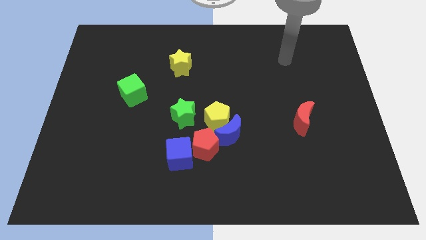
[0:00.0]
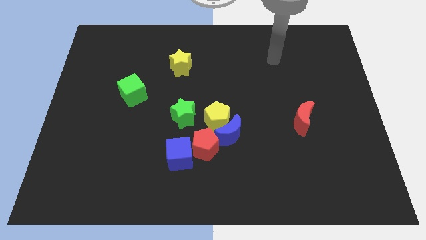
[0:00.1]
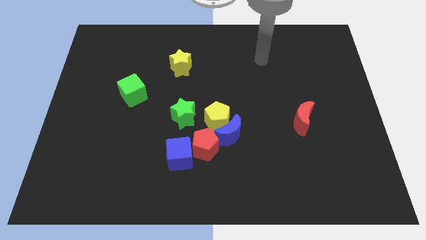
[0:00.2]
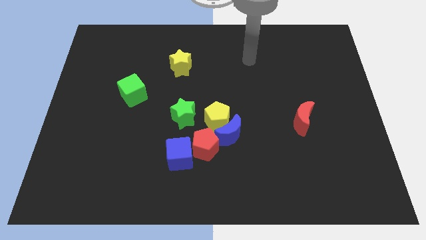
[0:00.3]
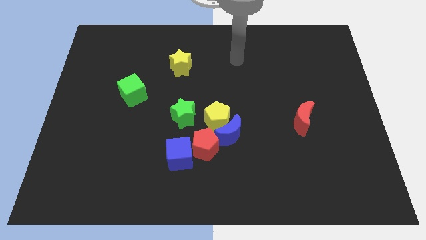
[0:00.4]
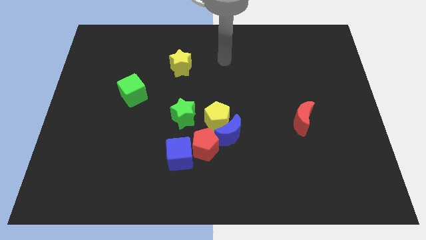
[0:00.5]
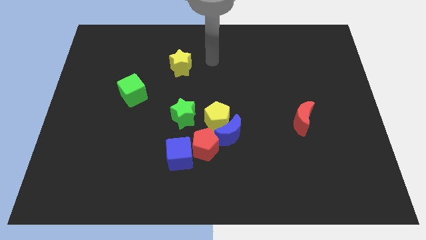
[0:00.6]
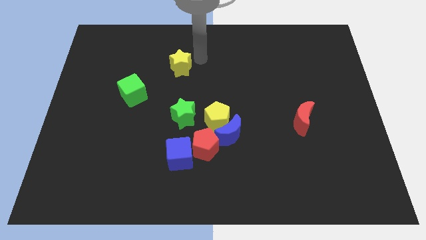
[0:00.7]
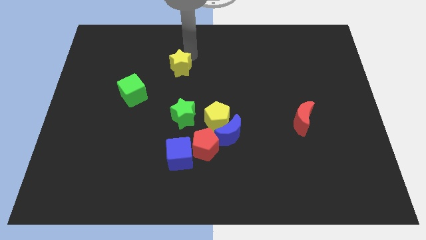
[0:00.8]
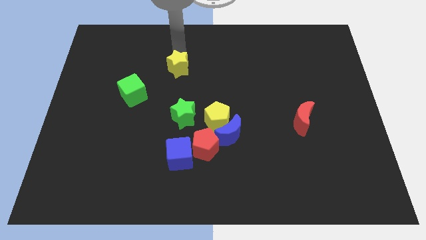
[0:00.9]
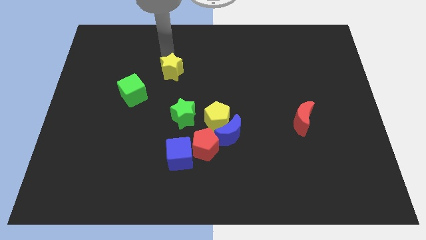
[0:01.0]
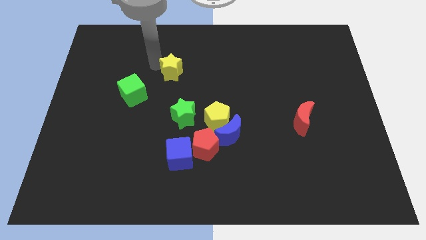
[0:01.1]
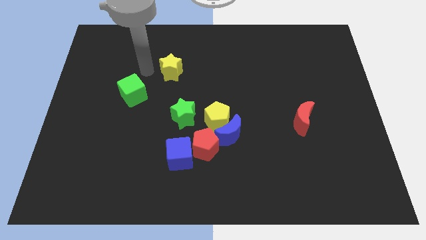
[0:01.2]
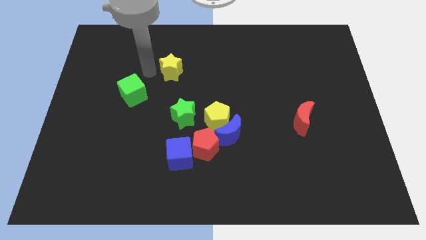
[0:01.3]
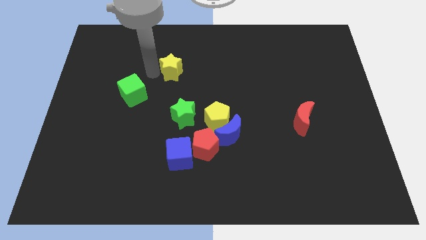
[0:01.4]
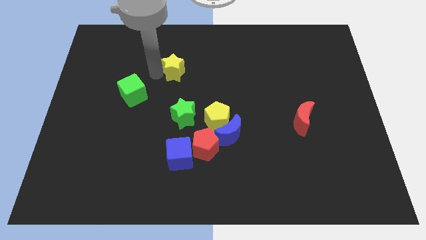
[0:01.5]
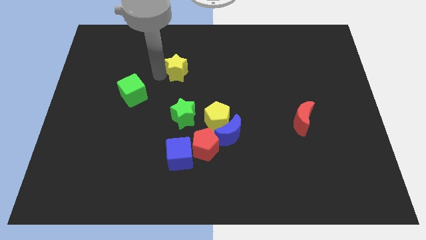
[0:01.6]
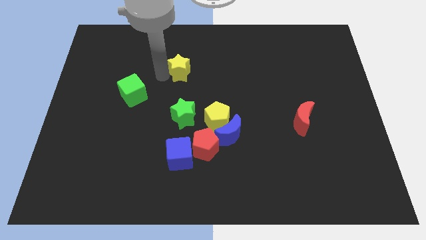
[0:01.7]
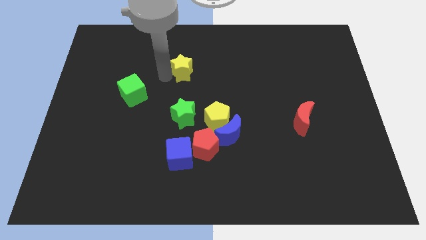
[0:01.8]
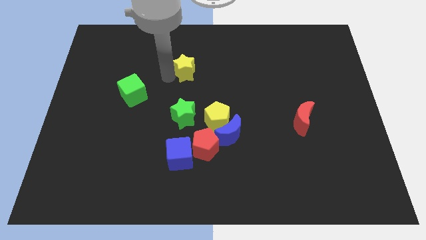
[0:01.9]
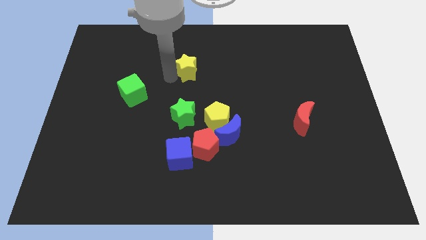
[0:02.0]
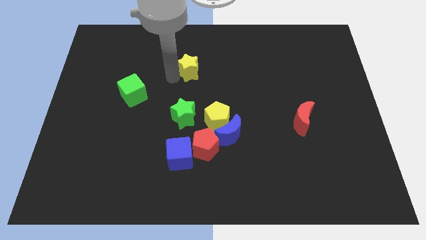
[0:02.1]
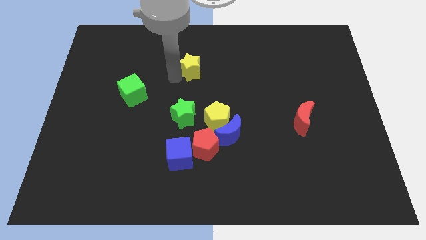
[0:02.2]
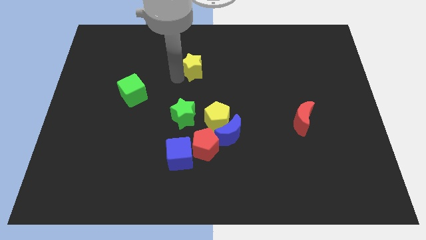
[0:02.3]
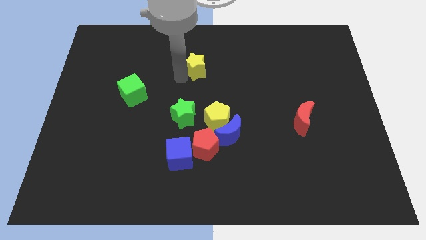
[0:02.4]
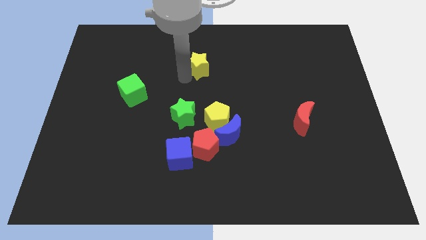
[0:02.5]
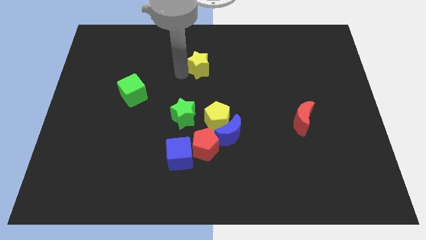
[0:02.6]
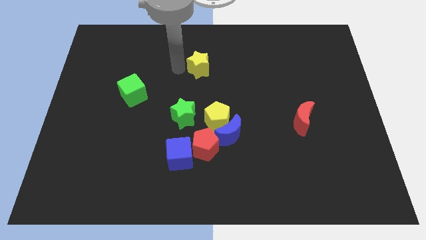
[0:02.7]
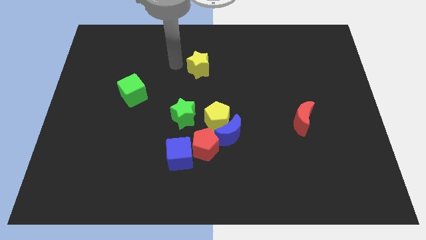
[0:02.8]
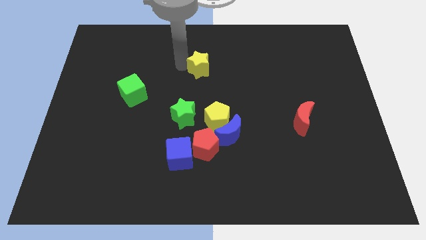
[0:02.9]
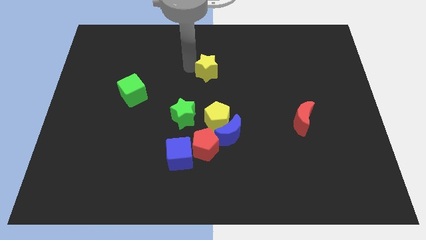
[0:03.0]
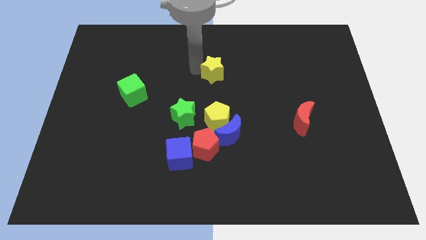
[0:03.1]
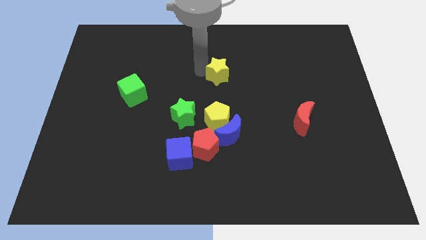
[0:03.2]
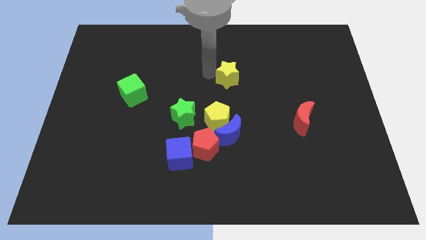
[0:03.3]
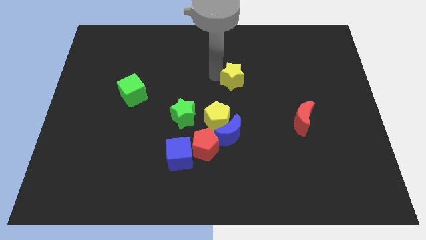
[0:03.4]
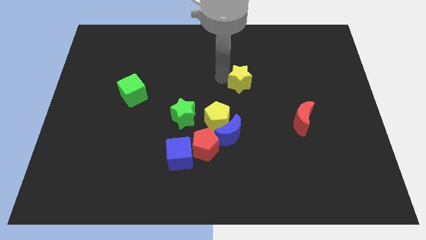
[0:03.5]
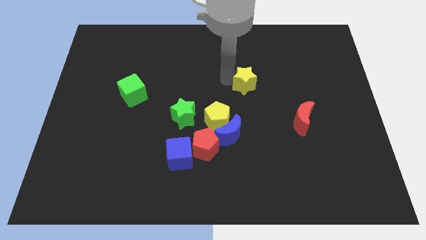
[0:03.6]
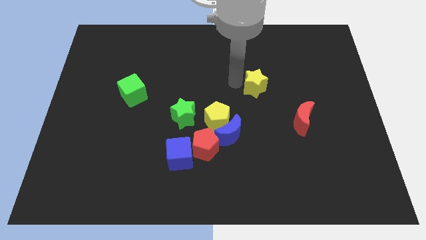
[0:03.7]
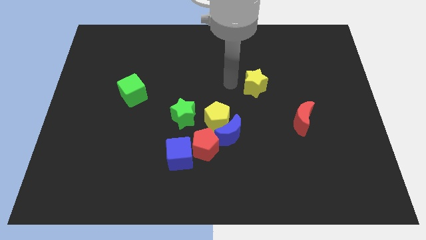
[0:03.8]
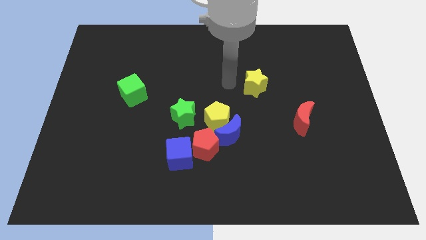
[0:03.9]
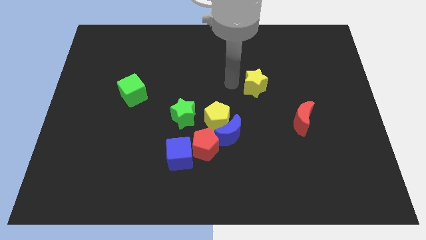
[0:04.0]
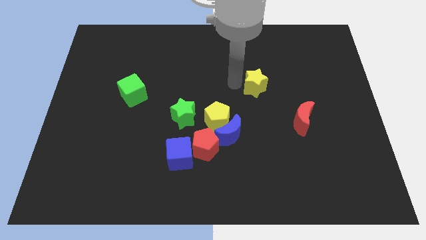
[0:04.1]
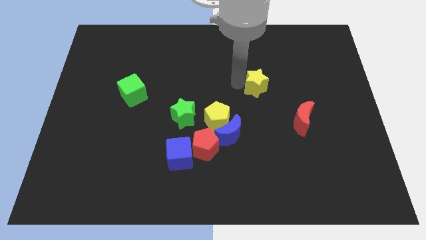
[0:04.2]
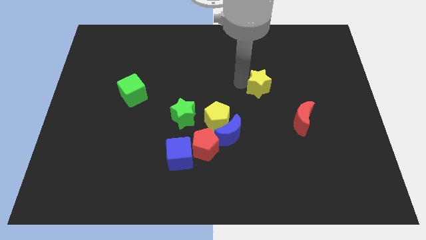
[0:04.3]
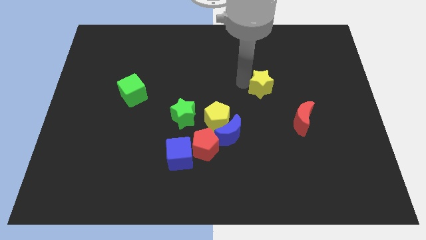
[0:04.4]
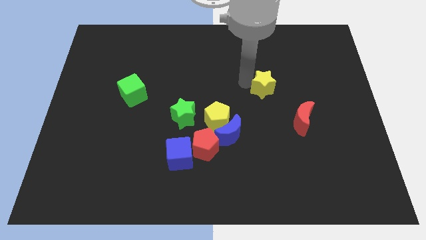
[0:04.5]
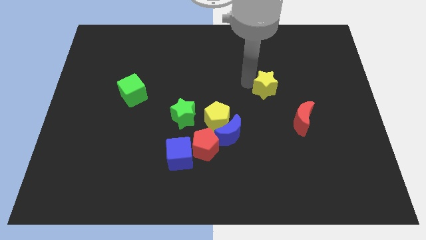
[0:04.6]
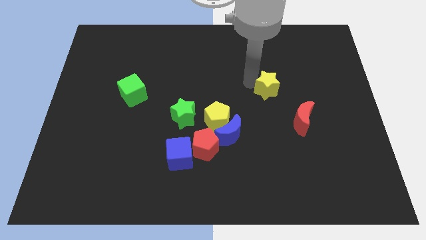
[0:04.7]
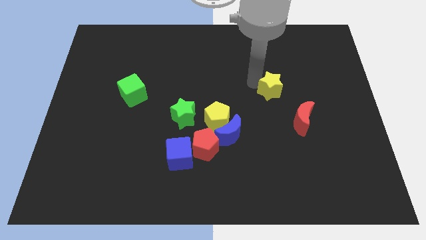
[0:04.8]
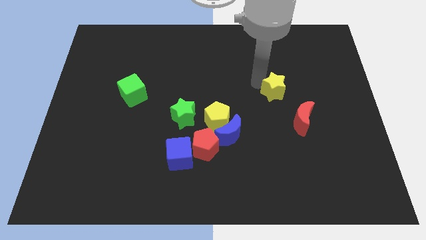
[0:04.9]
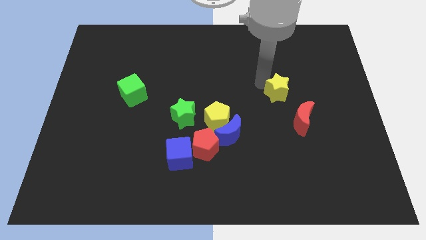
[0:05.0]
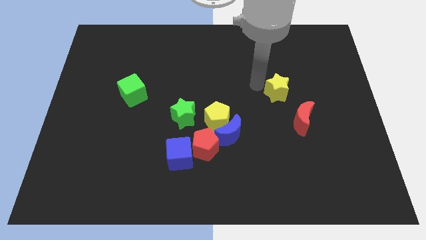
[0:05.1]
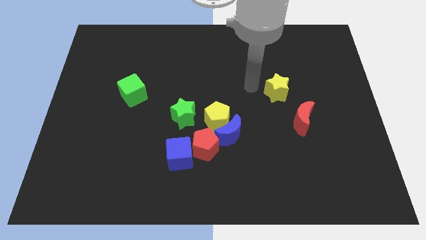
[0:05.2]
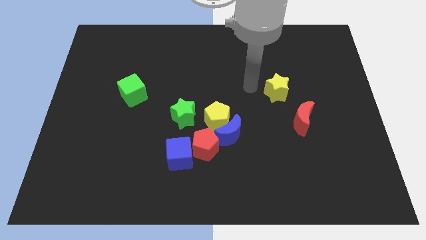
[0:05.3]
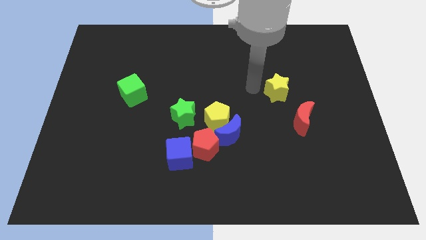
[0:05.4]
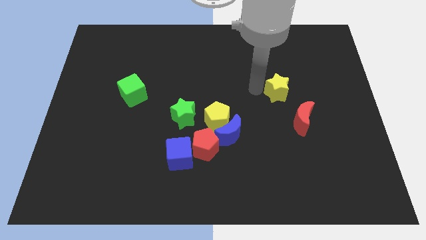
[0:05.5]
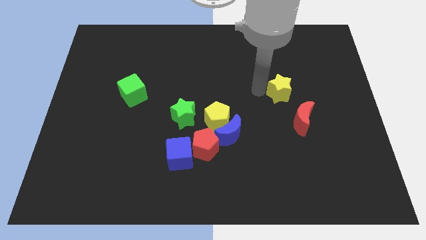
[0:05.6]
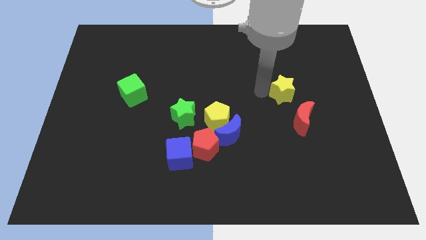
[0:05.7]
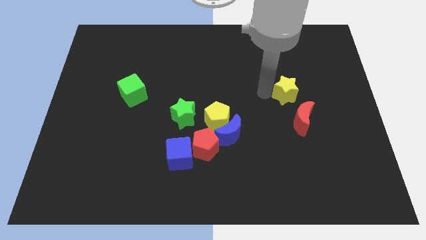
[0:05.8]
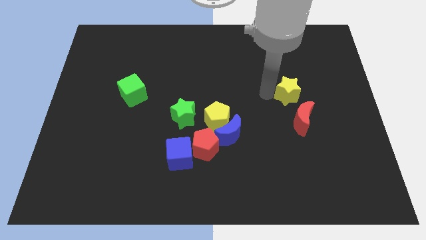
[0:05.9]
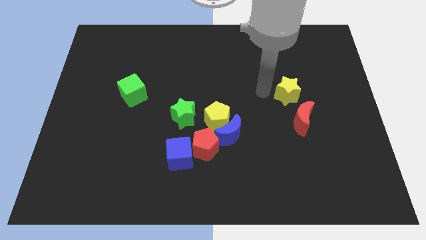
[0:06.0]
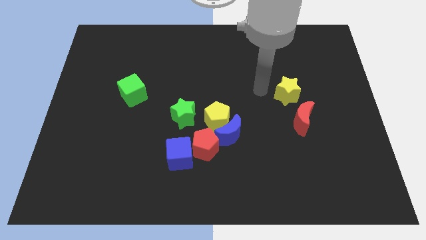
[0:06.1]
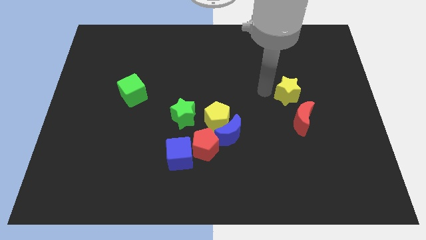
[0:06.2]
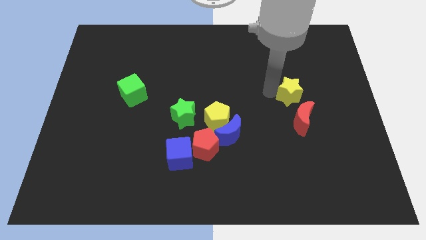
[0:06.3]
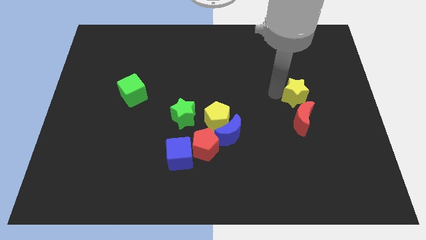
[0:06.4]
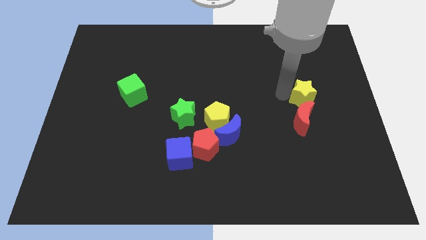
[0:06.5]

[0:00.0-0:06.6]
put the yellow star to the top right side of the red moon
